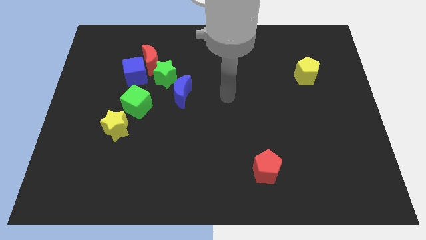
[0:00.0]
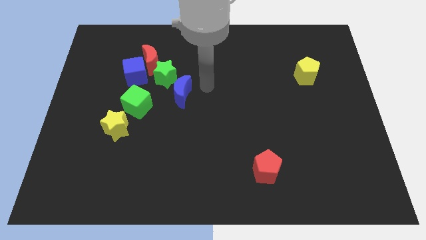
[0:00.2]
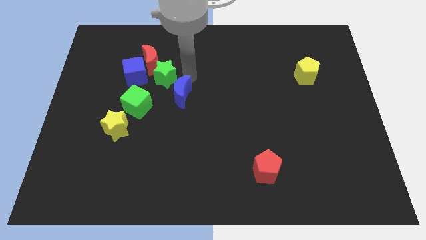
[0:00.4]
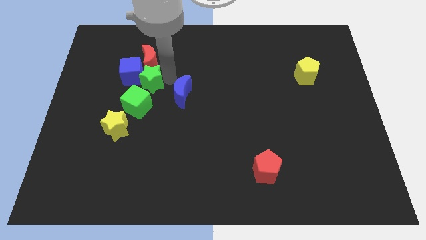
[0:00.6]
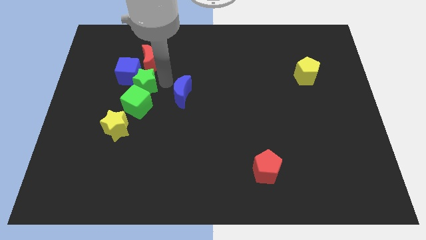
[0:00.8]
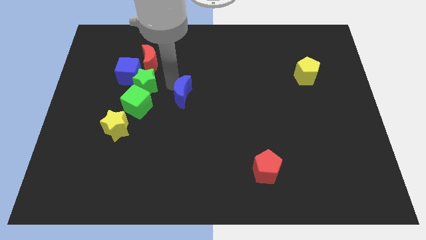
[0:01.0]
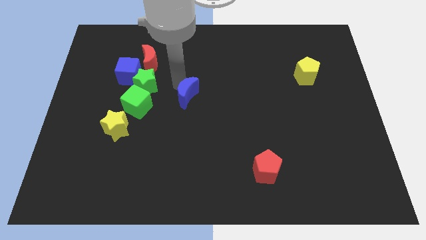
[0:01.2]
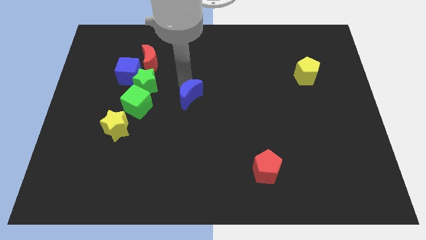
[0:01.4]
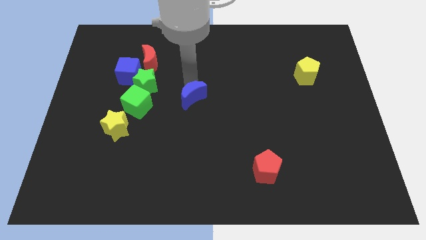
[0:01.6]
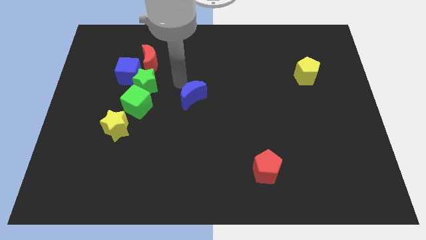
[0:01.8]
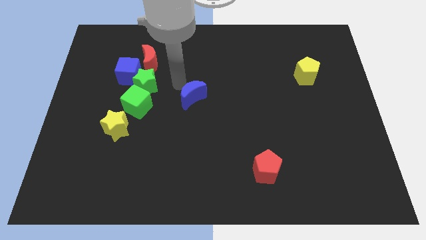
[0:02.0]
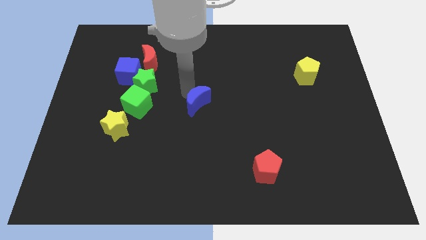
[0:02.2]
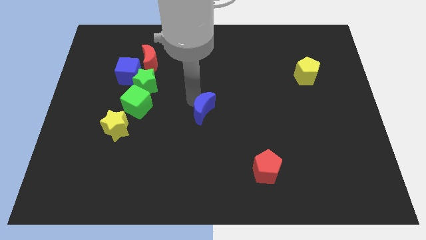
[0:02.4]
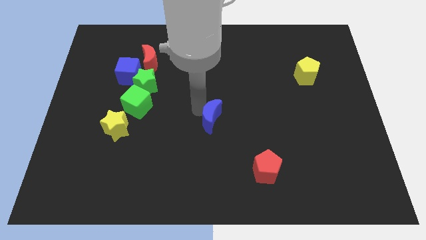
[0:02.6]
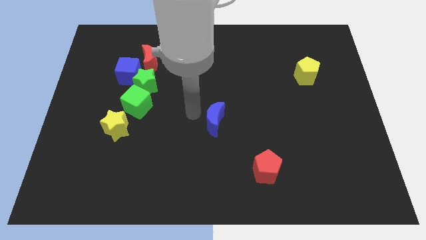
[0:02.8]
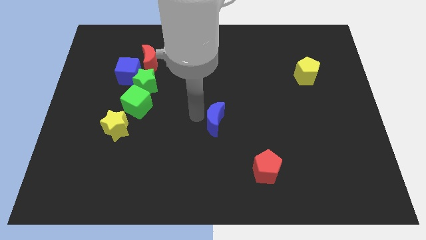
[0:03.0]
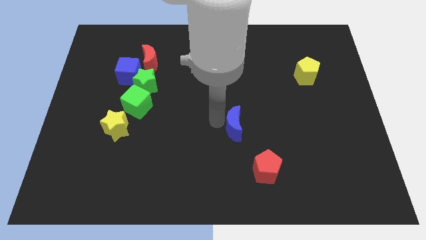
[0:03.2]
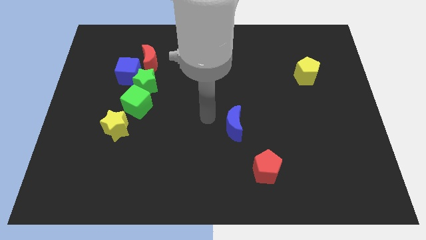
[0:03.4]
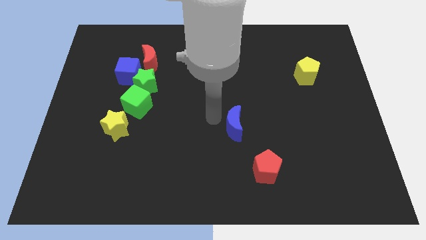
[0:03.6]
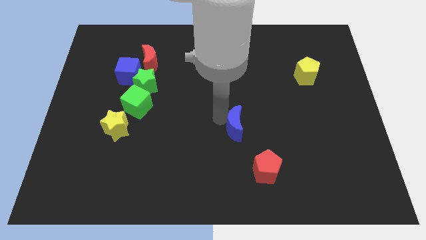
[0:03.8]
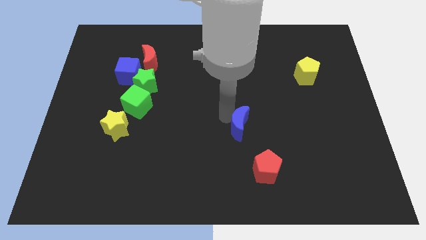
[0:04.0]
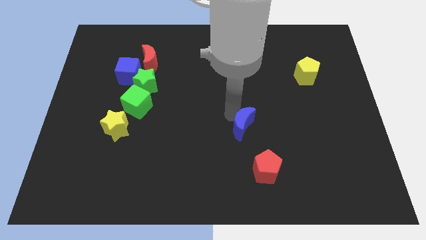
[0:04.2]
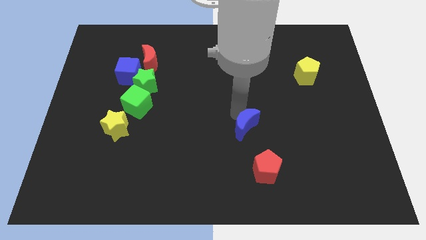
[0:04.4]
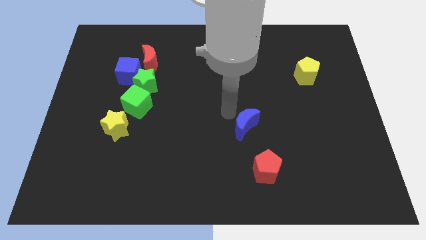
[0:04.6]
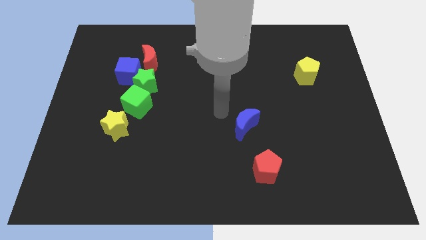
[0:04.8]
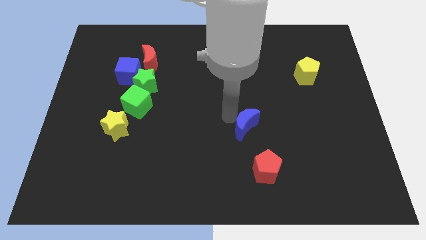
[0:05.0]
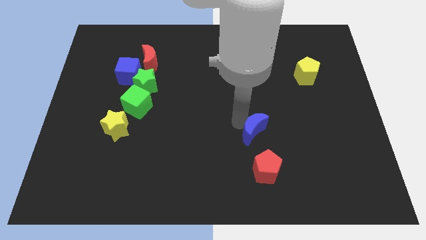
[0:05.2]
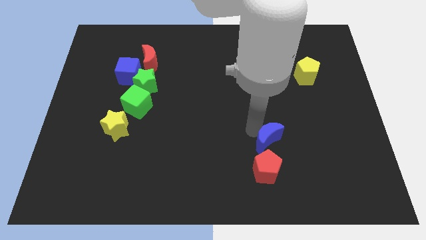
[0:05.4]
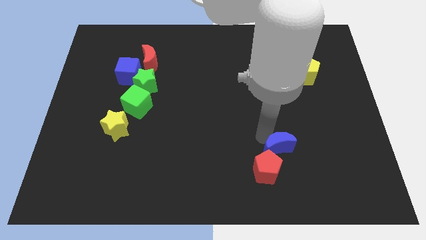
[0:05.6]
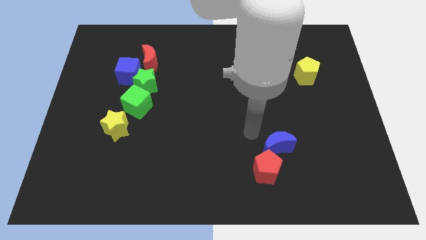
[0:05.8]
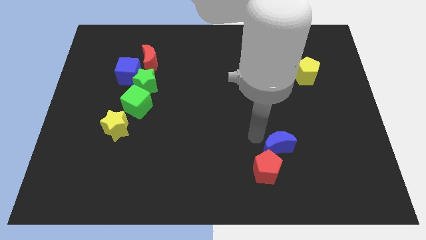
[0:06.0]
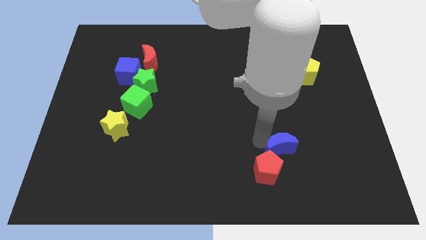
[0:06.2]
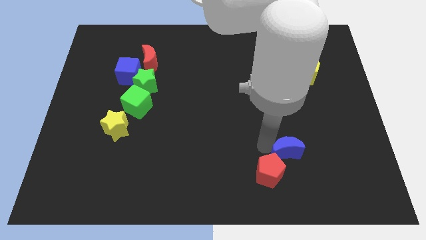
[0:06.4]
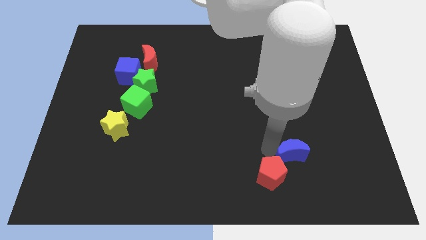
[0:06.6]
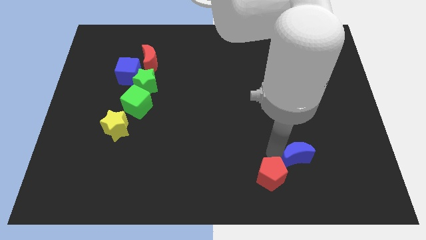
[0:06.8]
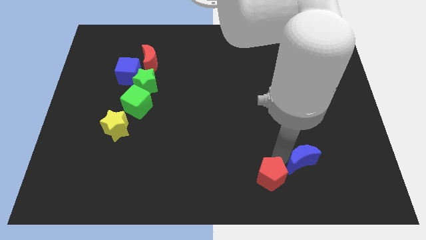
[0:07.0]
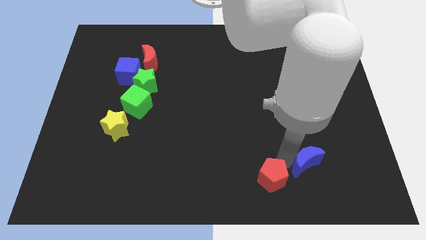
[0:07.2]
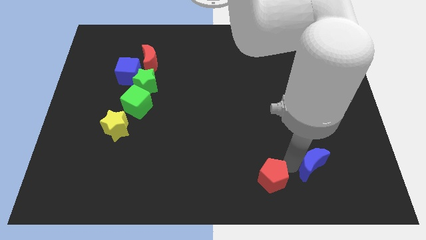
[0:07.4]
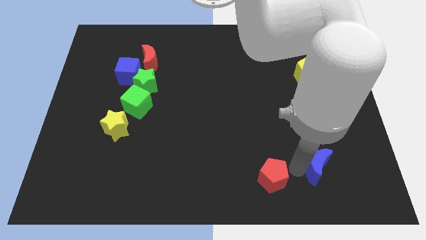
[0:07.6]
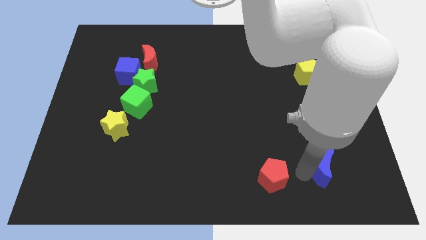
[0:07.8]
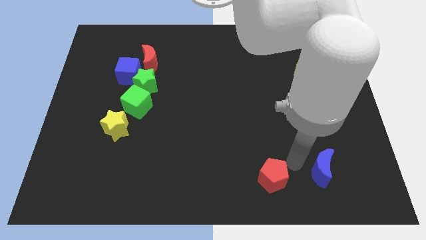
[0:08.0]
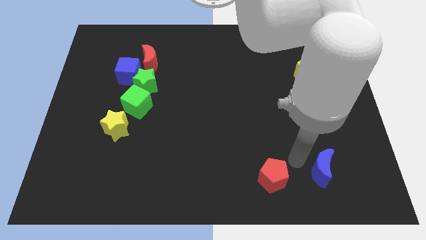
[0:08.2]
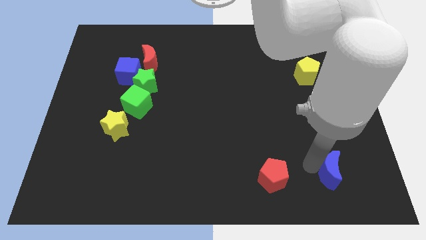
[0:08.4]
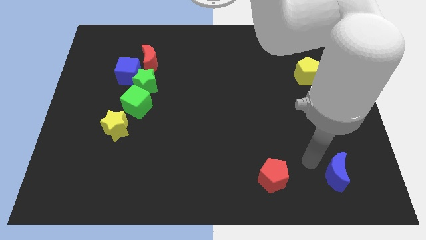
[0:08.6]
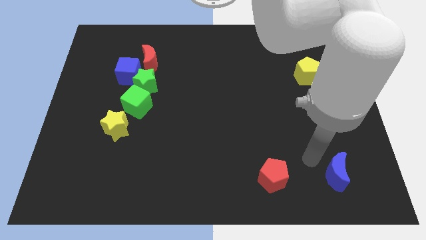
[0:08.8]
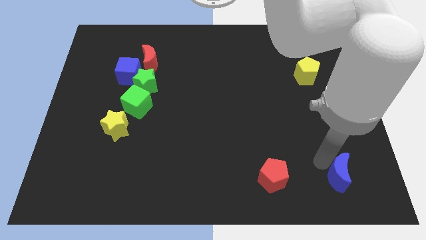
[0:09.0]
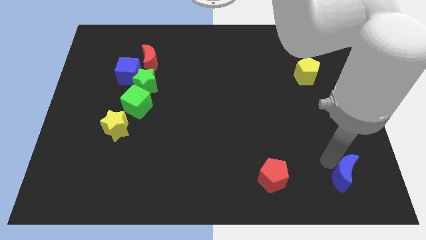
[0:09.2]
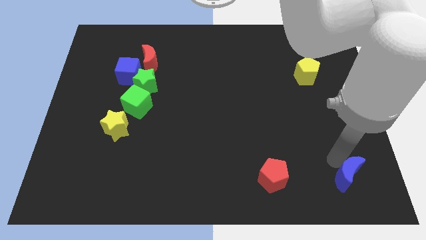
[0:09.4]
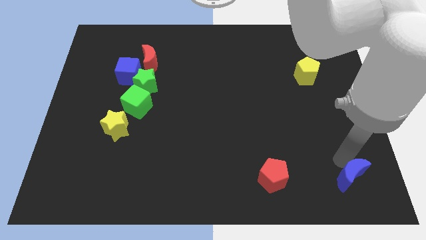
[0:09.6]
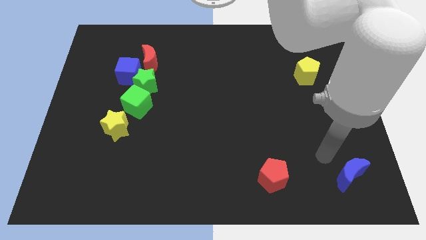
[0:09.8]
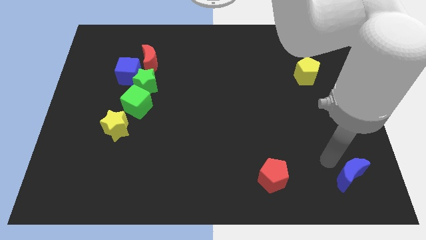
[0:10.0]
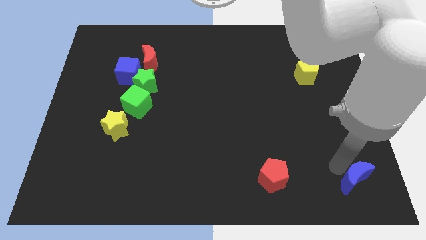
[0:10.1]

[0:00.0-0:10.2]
push the blue moon to the lower right corner

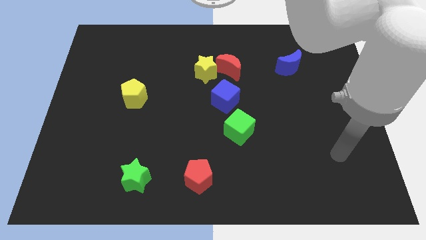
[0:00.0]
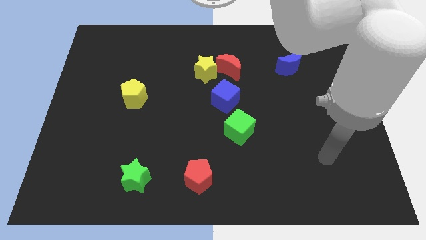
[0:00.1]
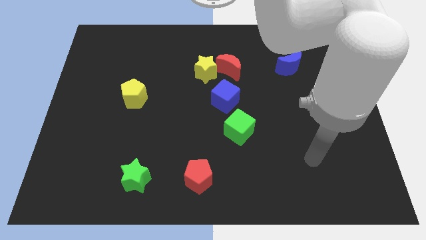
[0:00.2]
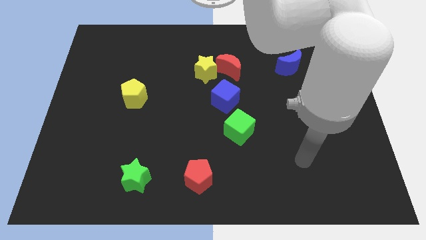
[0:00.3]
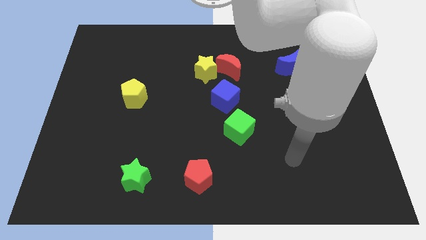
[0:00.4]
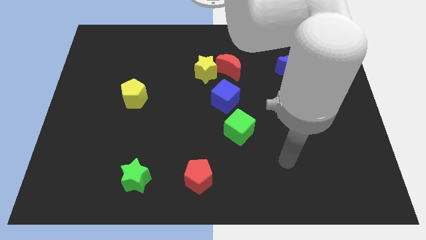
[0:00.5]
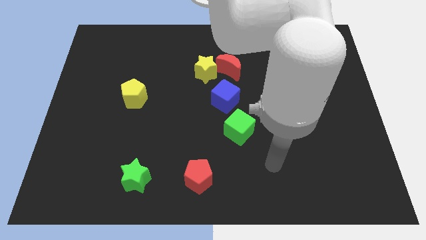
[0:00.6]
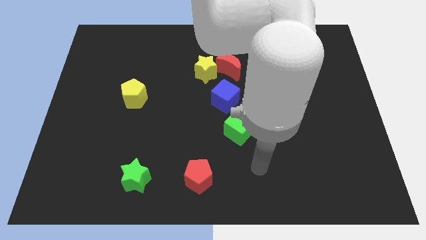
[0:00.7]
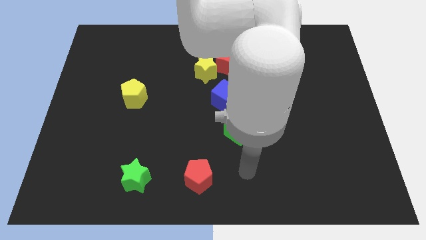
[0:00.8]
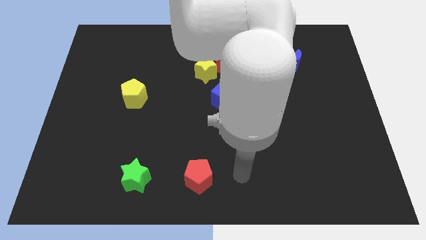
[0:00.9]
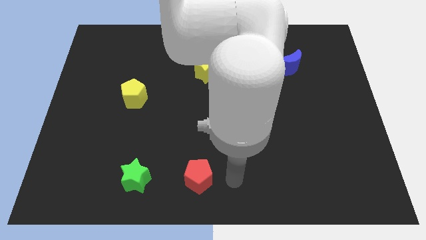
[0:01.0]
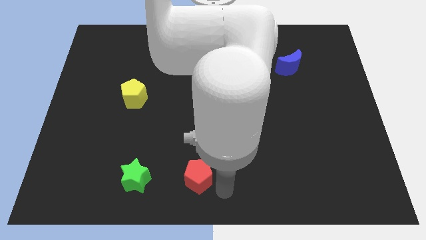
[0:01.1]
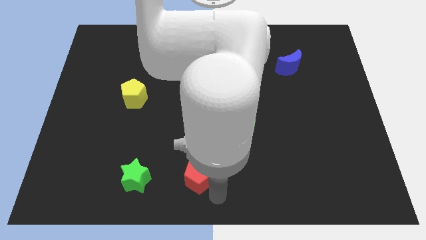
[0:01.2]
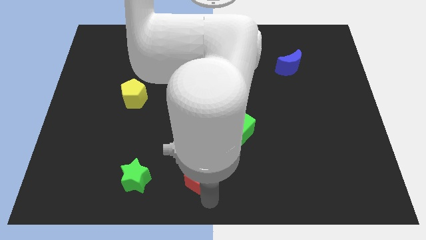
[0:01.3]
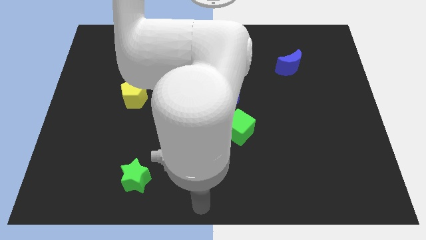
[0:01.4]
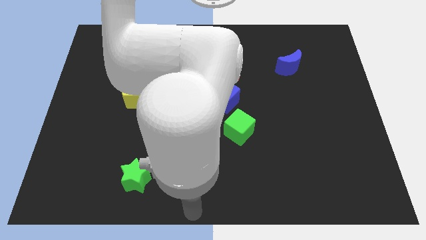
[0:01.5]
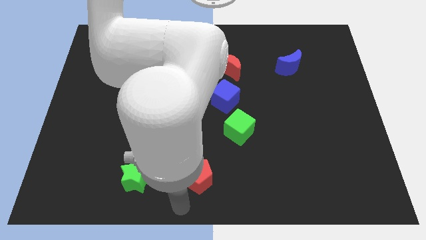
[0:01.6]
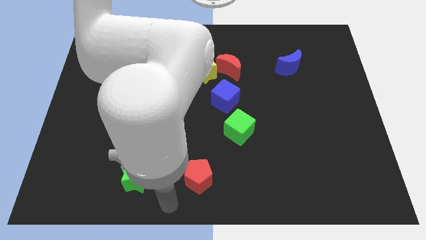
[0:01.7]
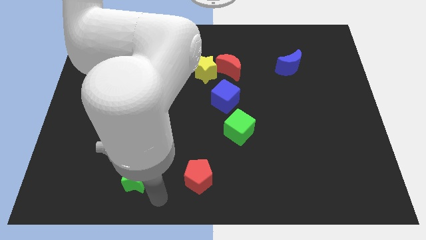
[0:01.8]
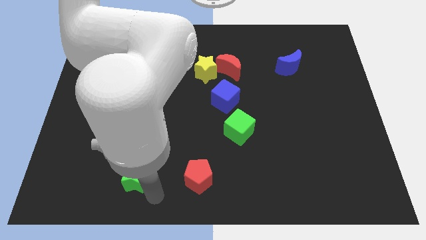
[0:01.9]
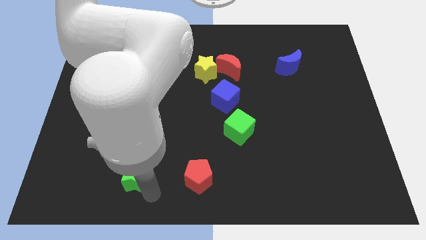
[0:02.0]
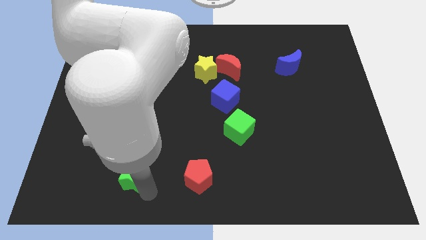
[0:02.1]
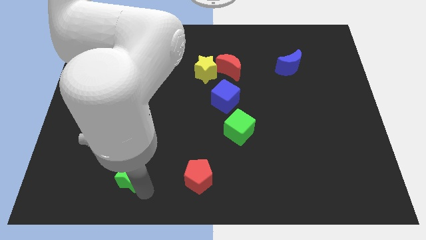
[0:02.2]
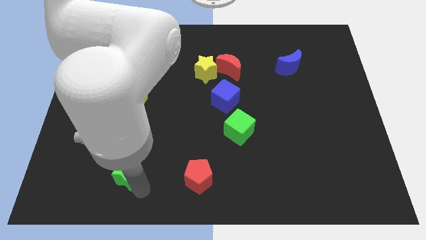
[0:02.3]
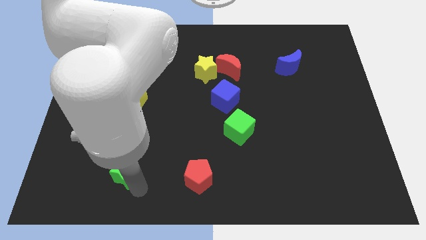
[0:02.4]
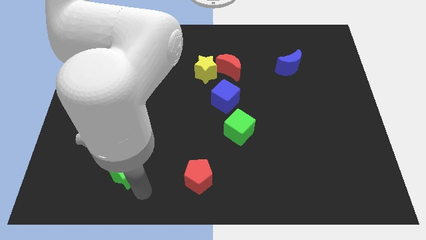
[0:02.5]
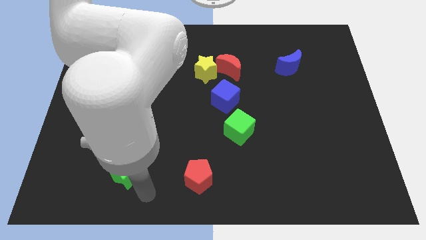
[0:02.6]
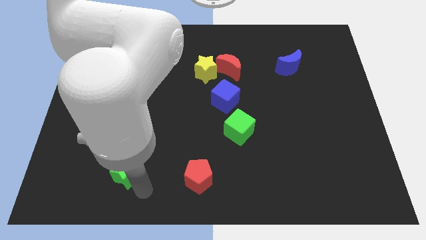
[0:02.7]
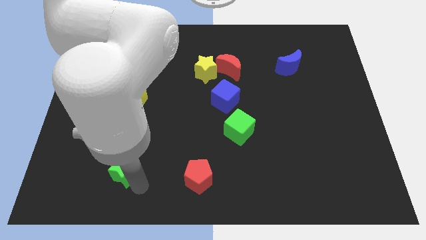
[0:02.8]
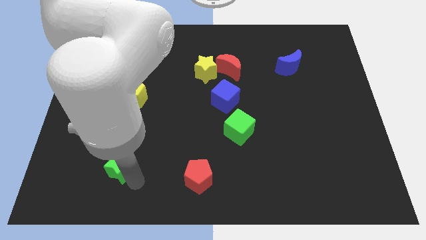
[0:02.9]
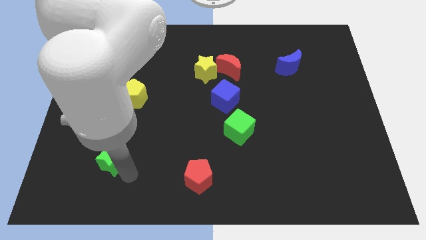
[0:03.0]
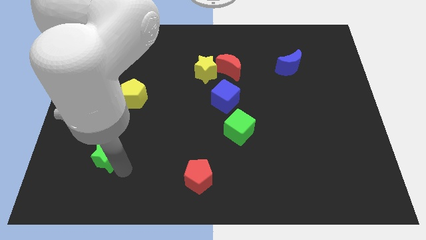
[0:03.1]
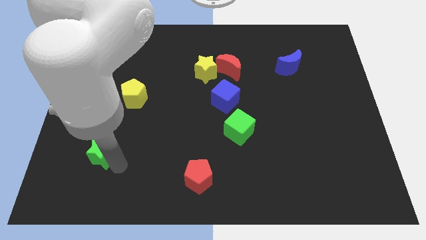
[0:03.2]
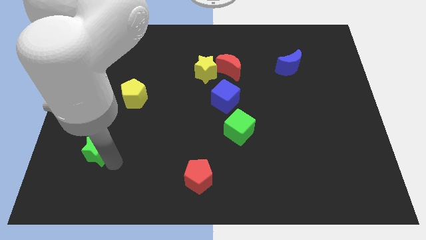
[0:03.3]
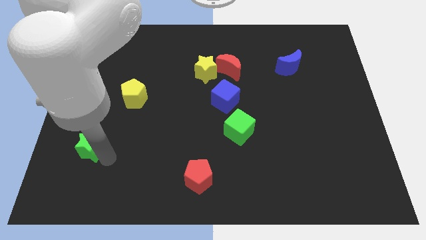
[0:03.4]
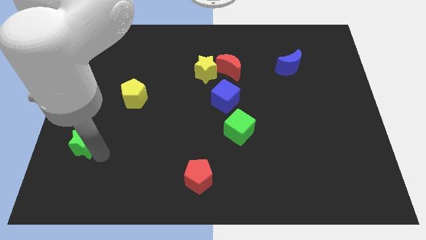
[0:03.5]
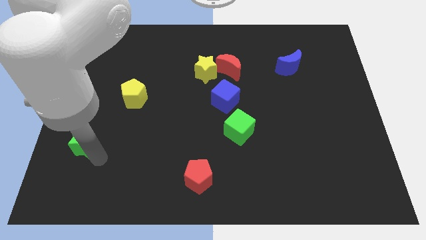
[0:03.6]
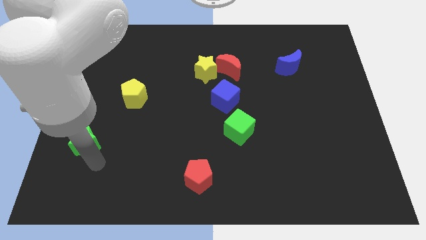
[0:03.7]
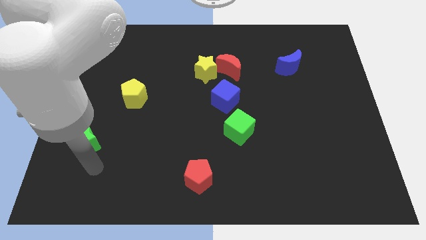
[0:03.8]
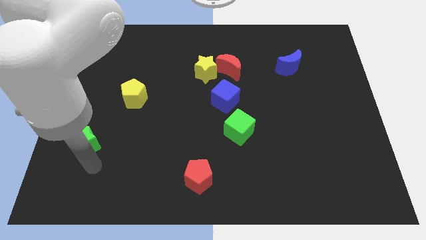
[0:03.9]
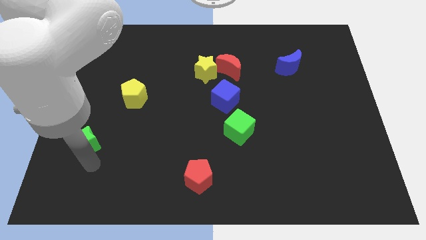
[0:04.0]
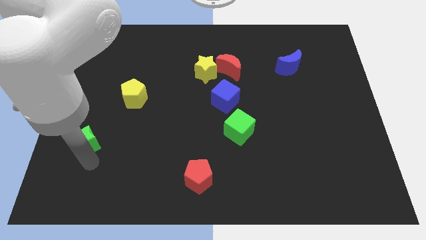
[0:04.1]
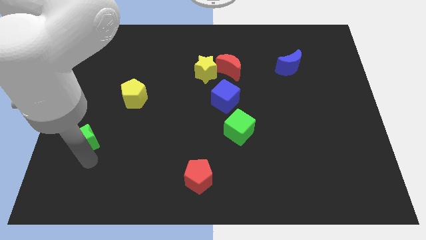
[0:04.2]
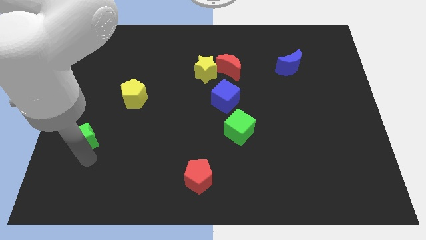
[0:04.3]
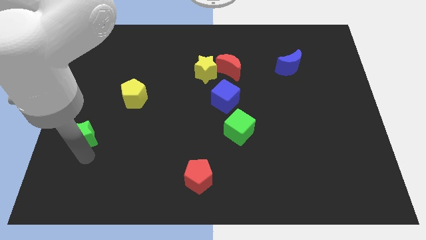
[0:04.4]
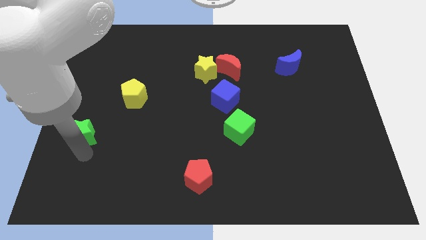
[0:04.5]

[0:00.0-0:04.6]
push the green star to the left side of the board
